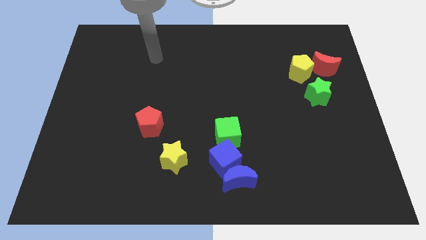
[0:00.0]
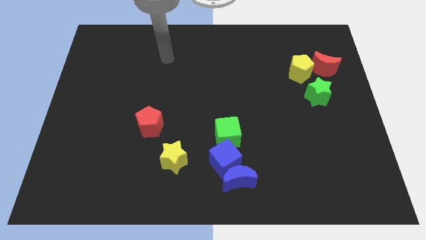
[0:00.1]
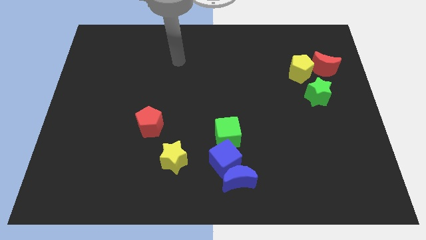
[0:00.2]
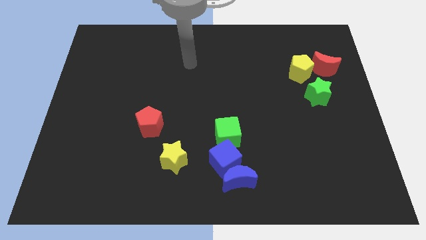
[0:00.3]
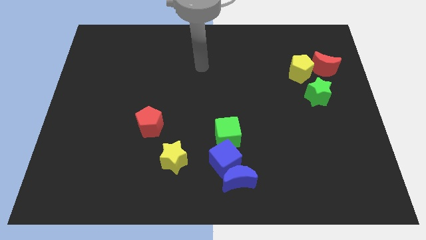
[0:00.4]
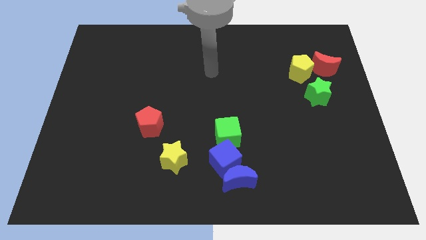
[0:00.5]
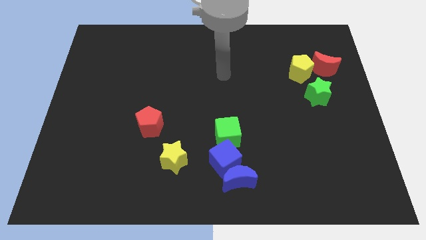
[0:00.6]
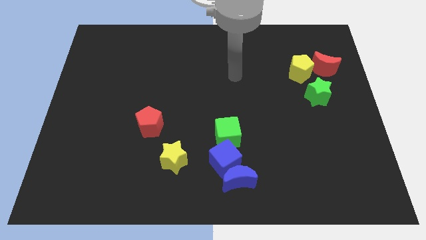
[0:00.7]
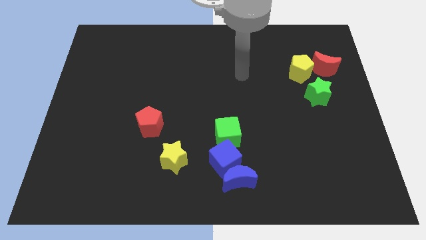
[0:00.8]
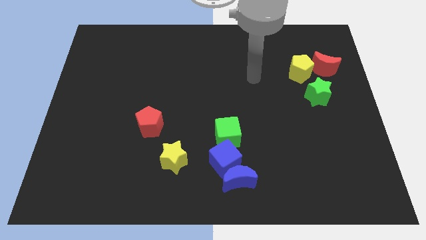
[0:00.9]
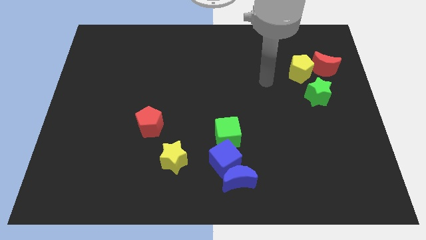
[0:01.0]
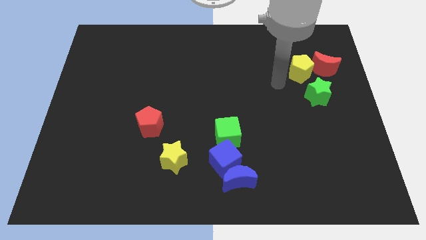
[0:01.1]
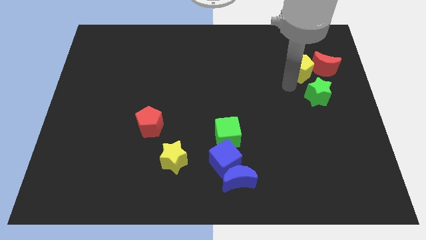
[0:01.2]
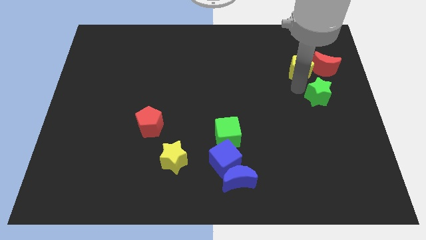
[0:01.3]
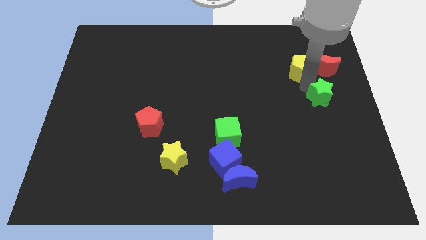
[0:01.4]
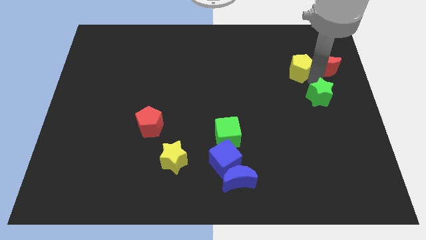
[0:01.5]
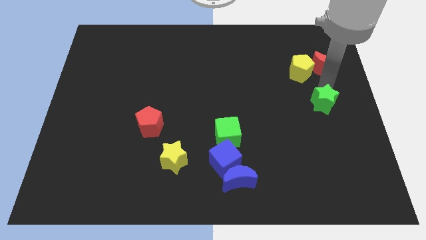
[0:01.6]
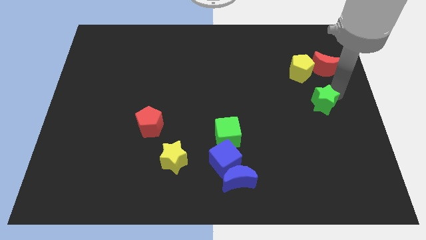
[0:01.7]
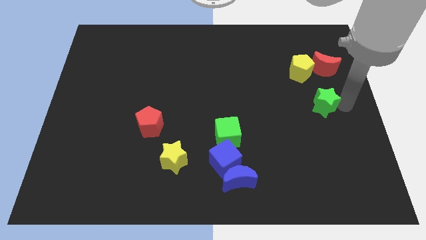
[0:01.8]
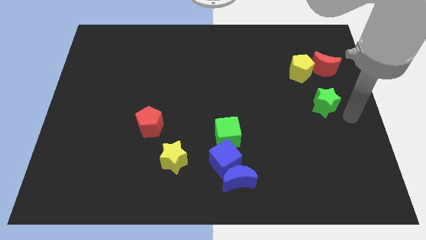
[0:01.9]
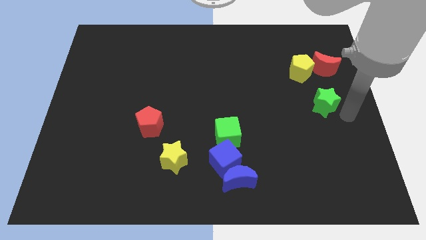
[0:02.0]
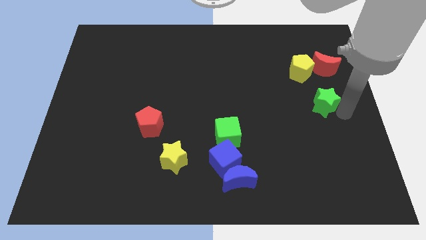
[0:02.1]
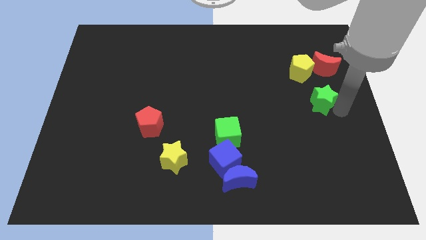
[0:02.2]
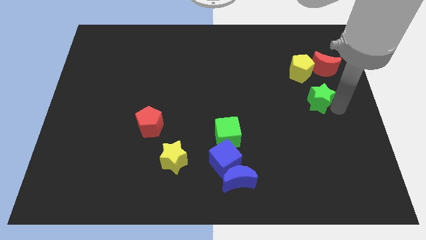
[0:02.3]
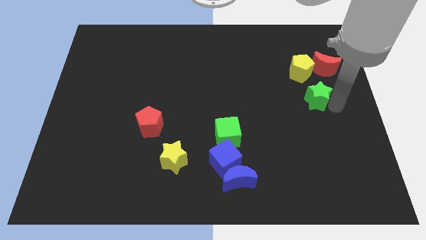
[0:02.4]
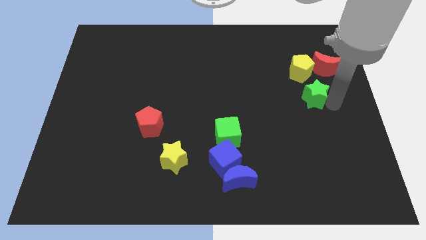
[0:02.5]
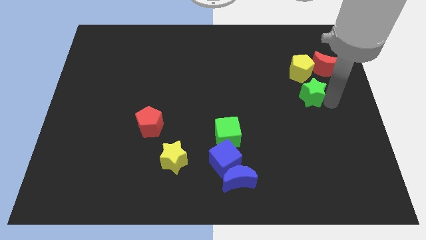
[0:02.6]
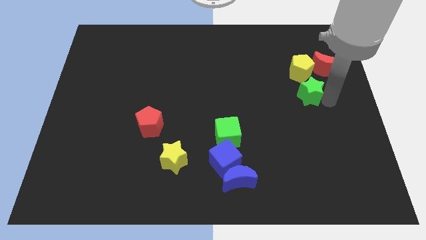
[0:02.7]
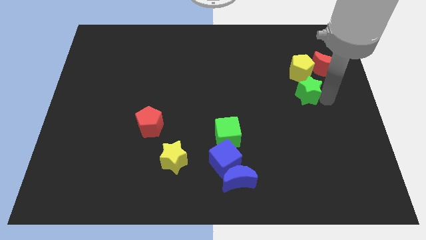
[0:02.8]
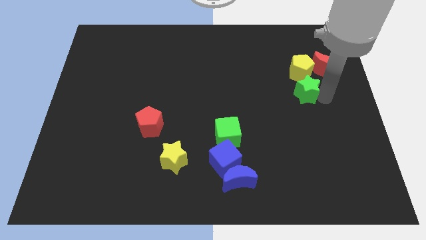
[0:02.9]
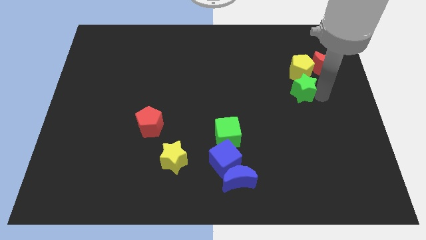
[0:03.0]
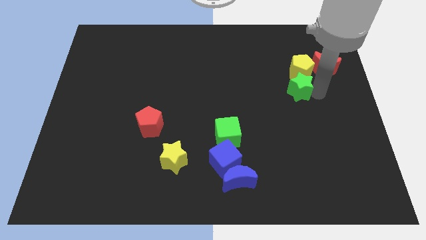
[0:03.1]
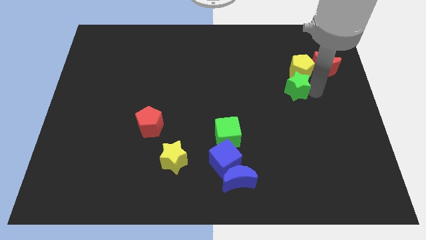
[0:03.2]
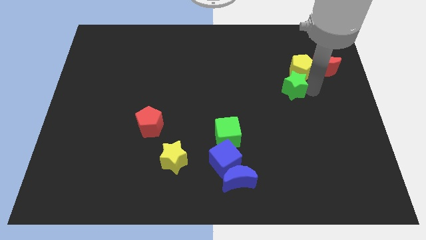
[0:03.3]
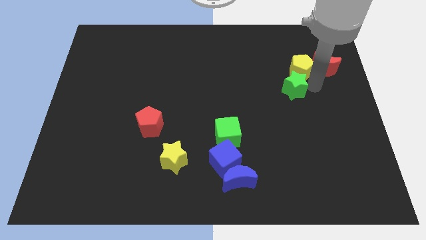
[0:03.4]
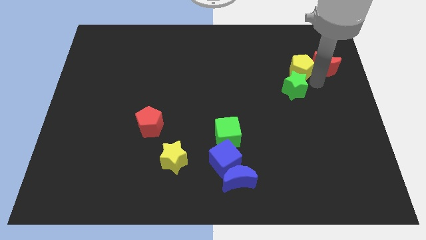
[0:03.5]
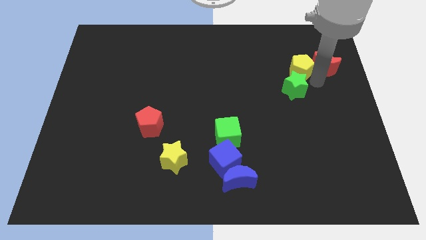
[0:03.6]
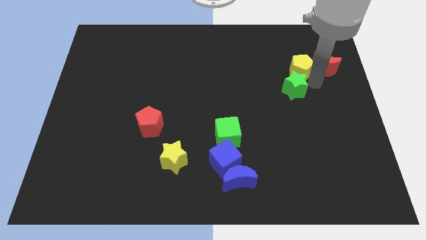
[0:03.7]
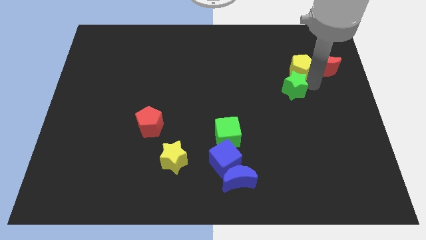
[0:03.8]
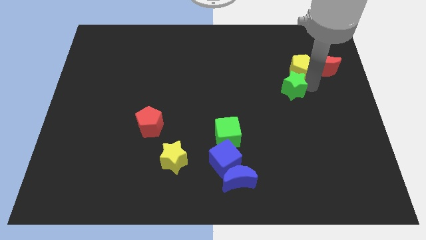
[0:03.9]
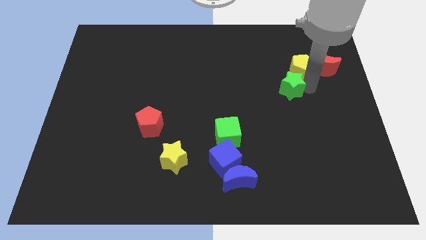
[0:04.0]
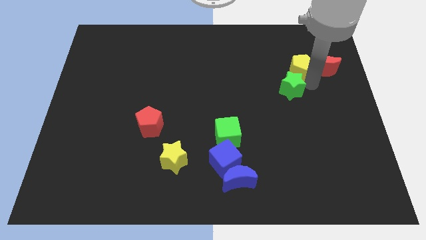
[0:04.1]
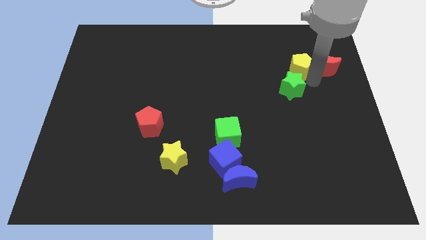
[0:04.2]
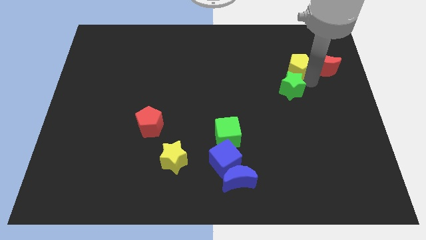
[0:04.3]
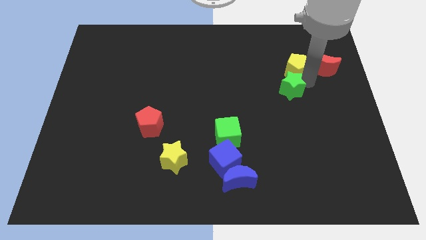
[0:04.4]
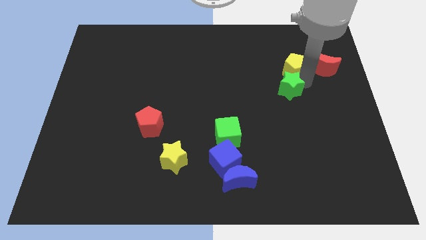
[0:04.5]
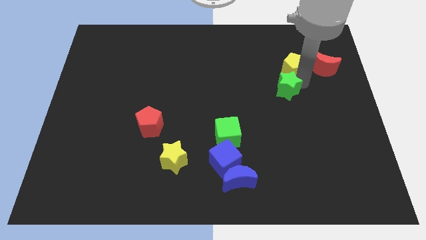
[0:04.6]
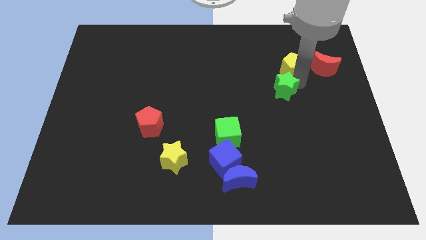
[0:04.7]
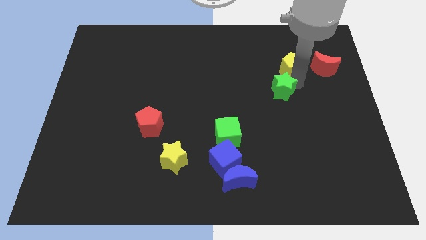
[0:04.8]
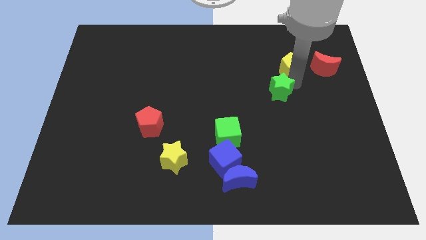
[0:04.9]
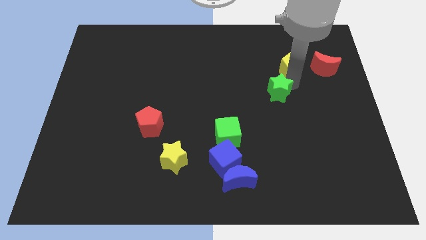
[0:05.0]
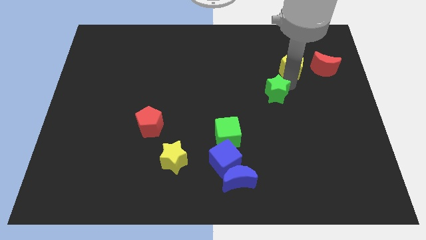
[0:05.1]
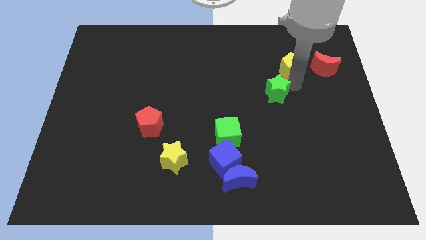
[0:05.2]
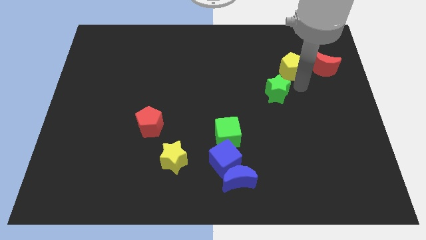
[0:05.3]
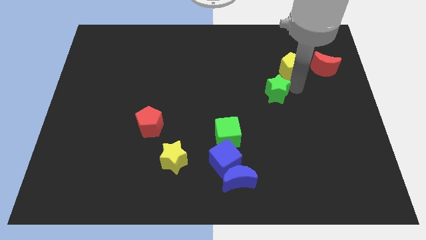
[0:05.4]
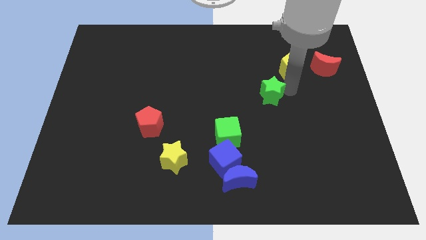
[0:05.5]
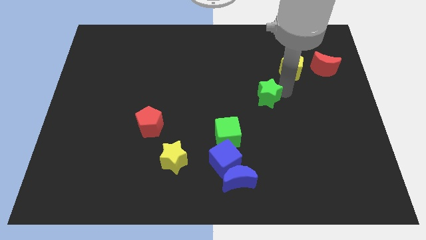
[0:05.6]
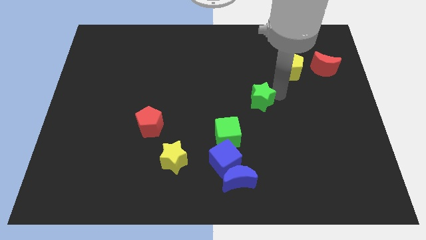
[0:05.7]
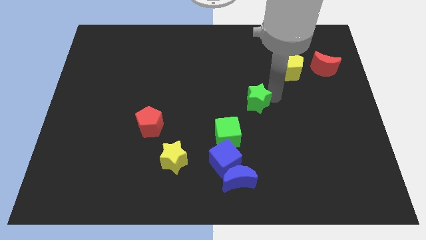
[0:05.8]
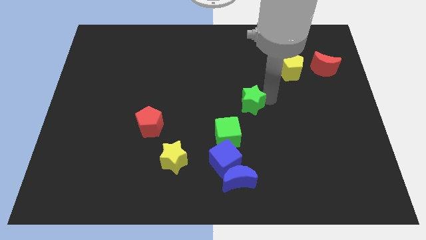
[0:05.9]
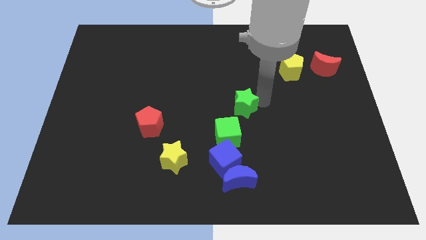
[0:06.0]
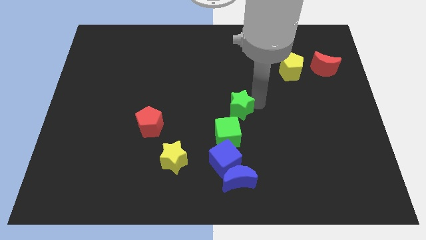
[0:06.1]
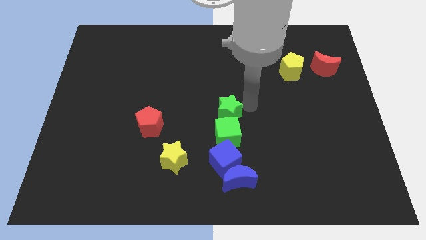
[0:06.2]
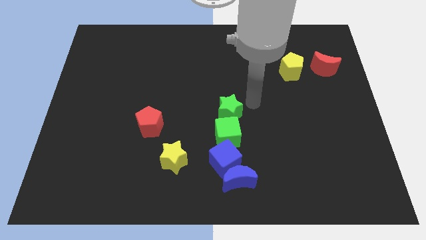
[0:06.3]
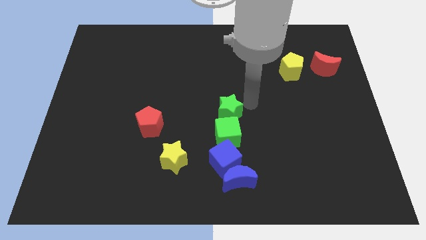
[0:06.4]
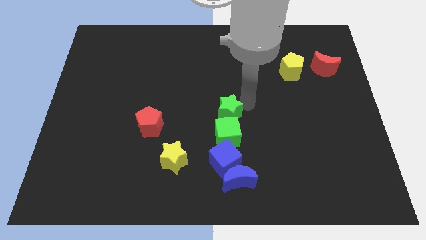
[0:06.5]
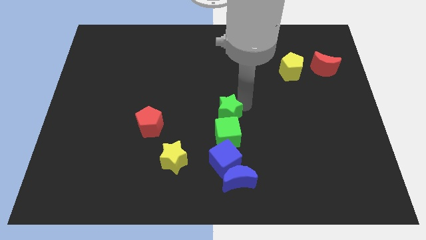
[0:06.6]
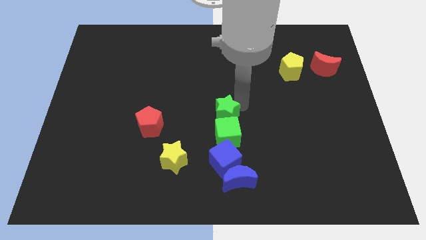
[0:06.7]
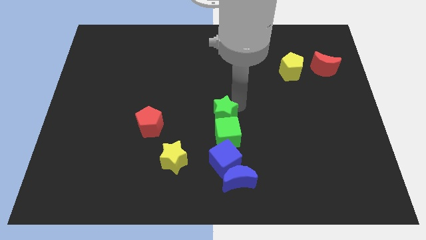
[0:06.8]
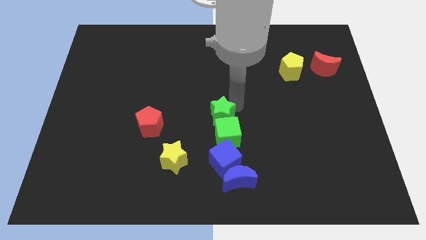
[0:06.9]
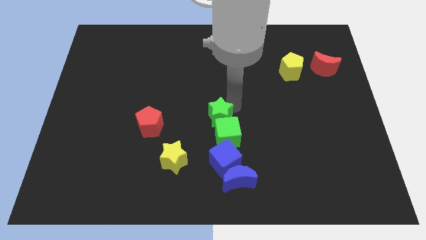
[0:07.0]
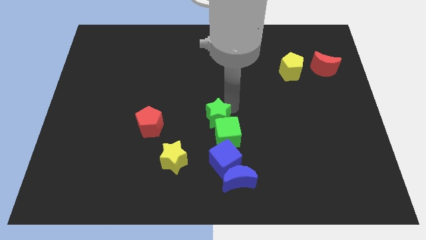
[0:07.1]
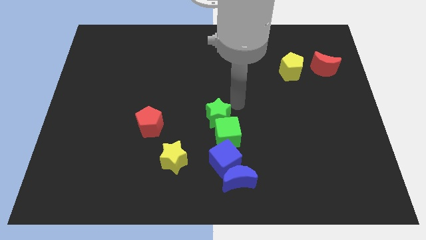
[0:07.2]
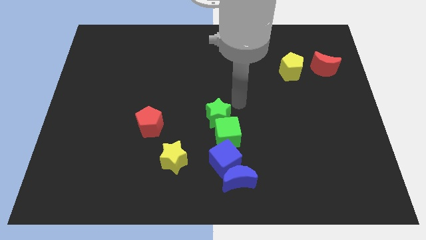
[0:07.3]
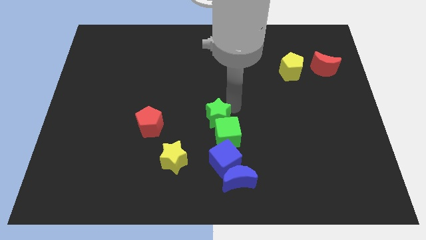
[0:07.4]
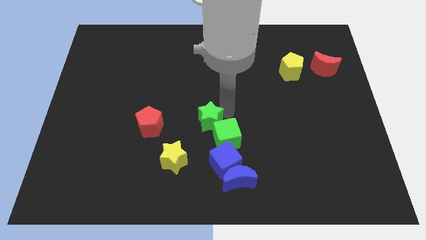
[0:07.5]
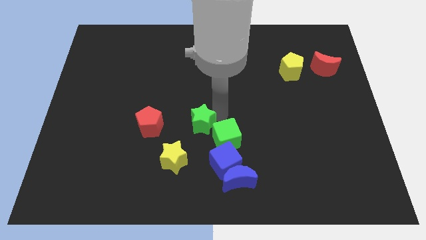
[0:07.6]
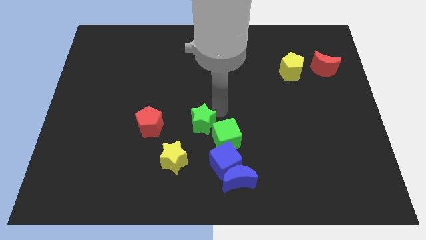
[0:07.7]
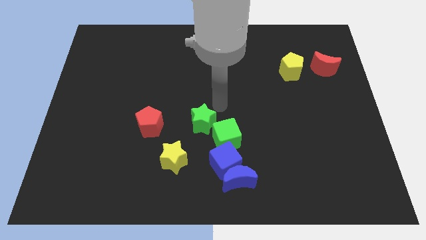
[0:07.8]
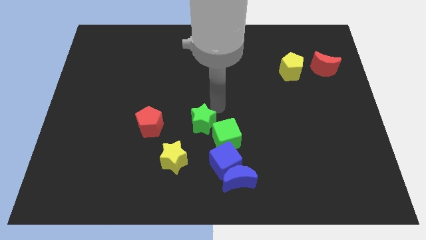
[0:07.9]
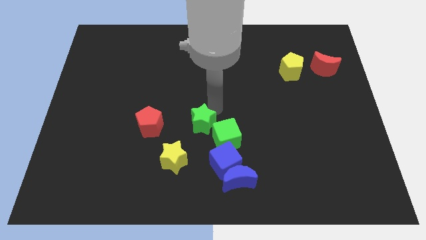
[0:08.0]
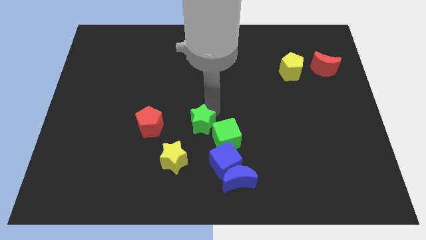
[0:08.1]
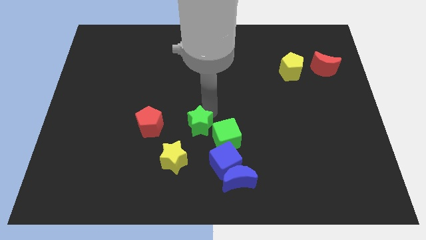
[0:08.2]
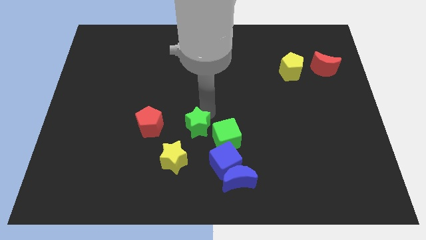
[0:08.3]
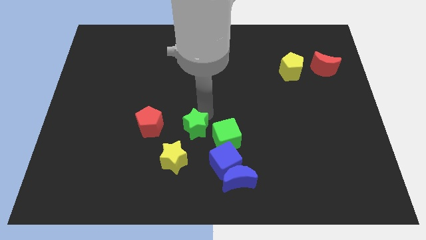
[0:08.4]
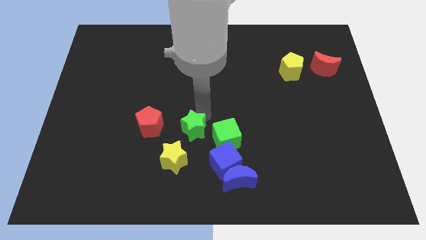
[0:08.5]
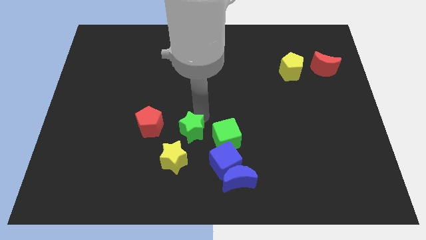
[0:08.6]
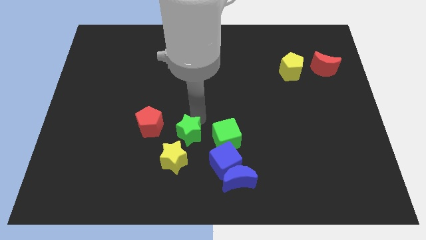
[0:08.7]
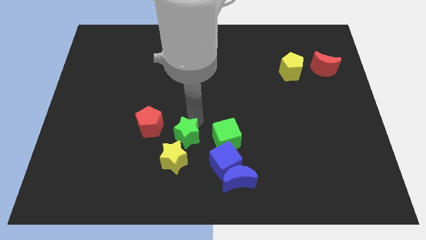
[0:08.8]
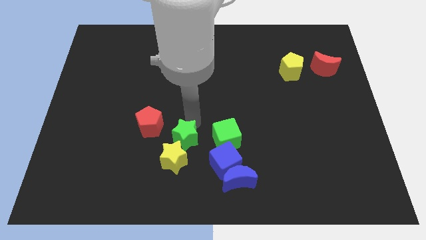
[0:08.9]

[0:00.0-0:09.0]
slide the green star next to the yellow star
